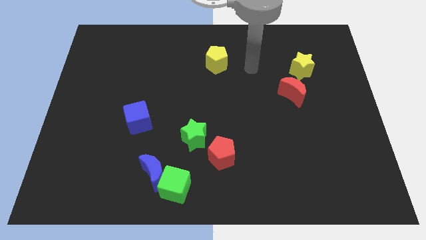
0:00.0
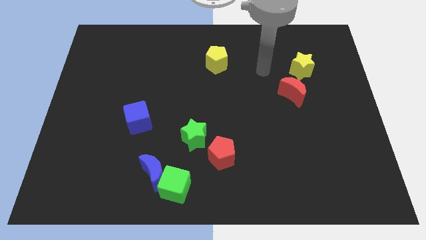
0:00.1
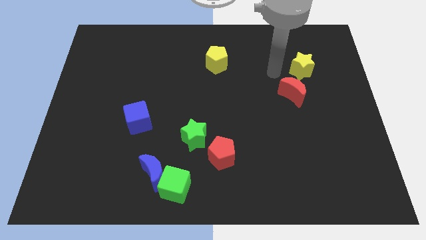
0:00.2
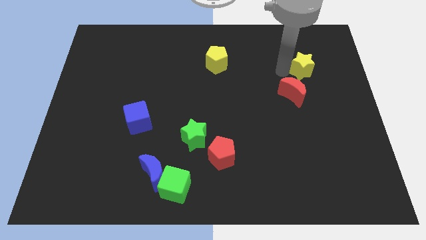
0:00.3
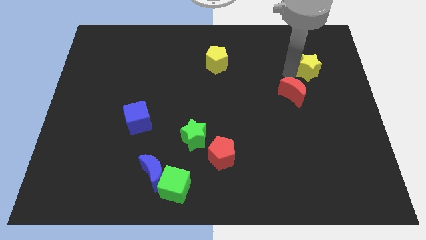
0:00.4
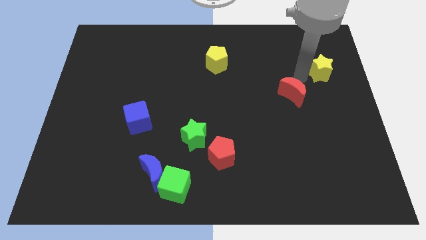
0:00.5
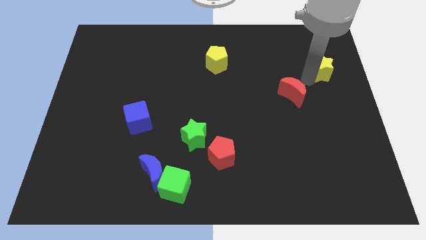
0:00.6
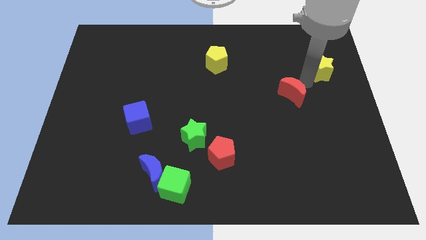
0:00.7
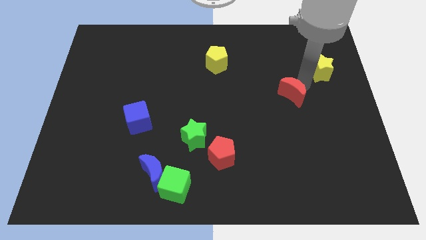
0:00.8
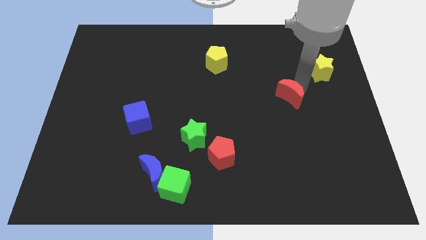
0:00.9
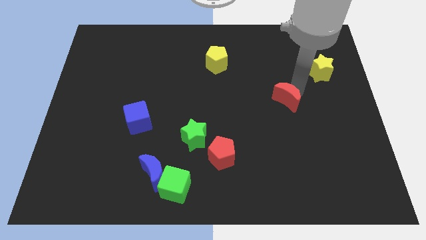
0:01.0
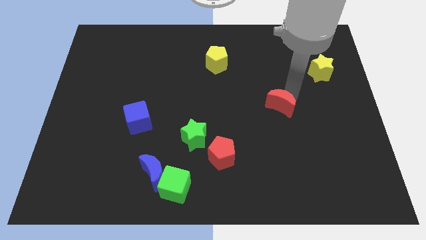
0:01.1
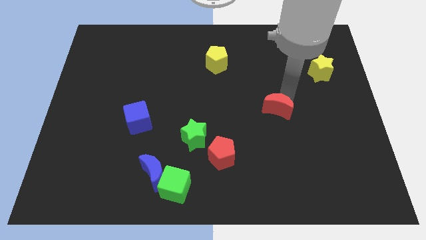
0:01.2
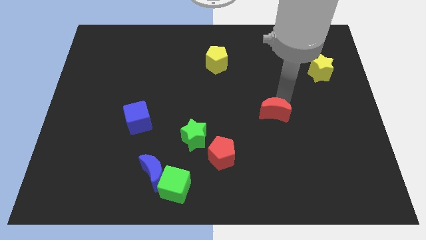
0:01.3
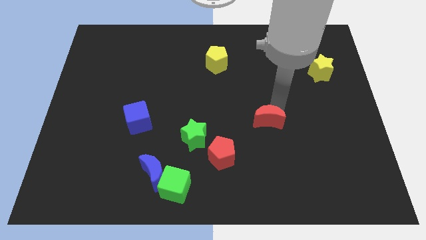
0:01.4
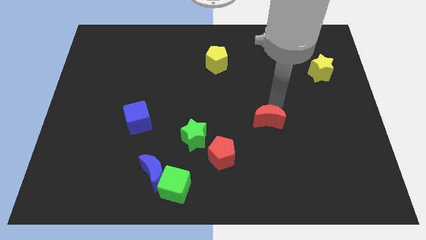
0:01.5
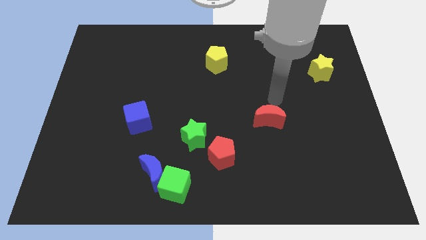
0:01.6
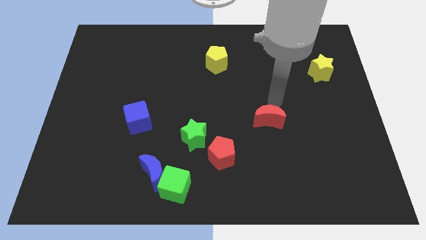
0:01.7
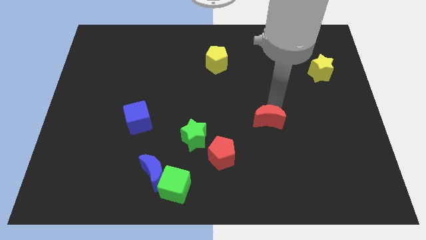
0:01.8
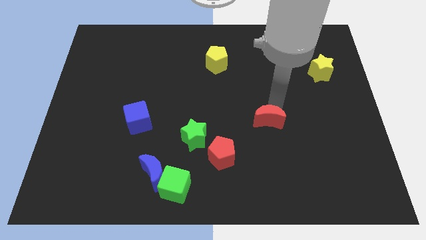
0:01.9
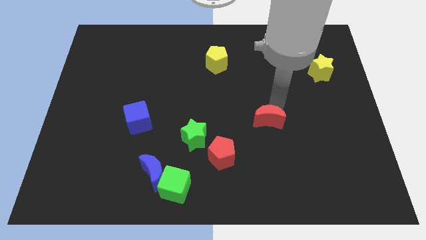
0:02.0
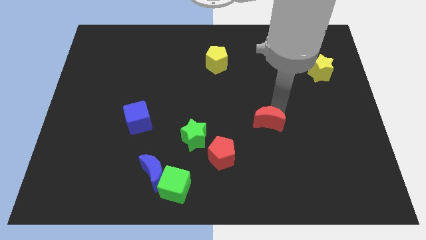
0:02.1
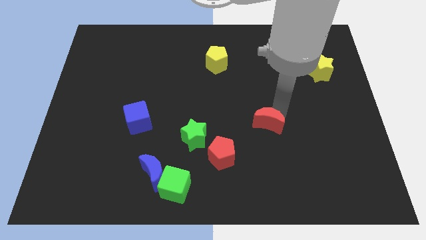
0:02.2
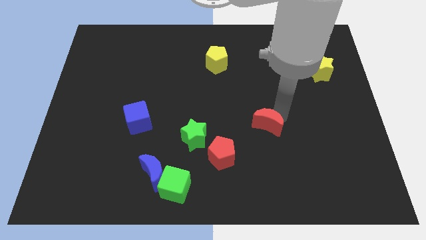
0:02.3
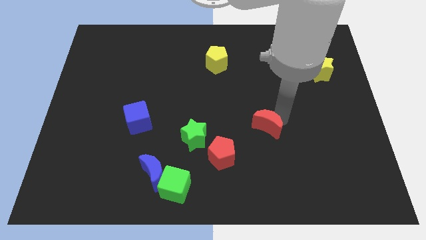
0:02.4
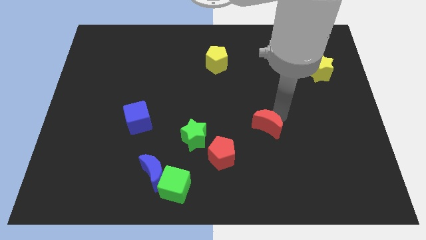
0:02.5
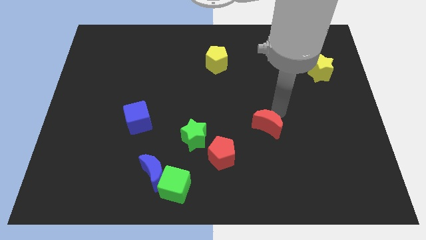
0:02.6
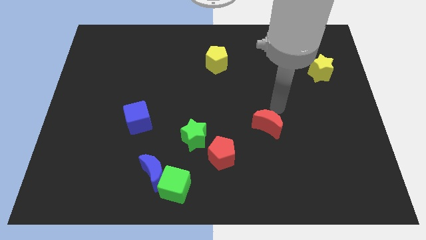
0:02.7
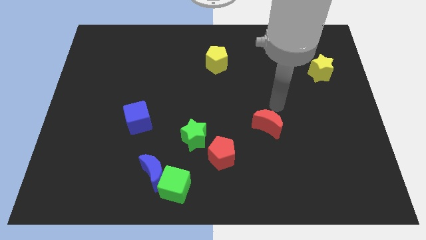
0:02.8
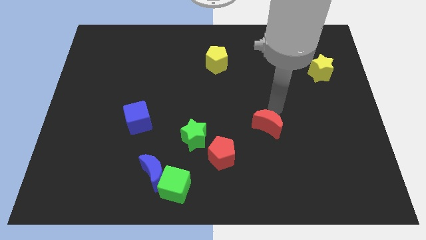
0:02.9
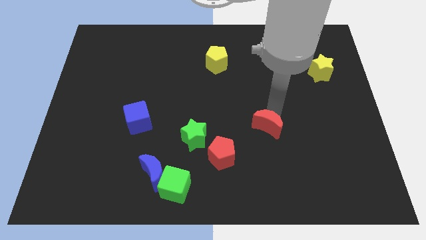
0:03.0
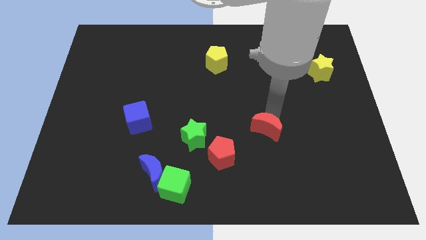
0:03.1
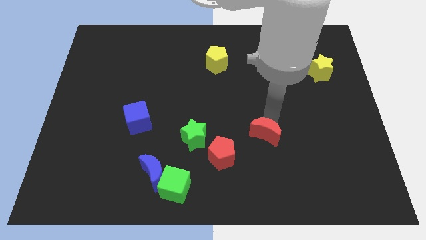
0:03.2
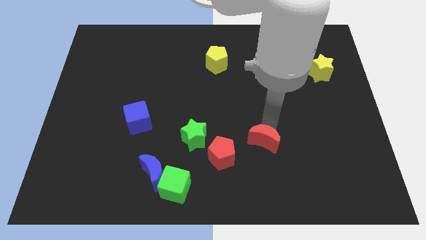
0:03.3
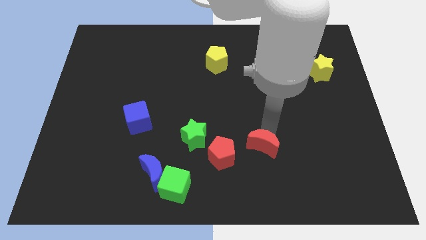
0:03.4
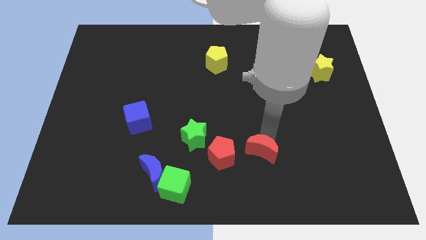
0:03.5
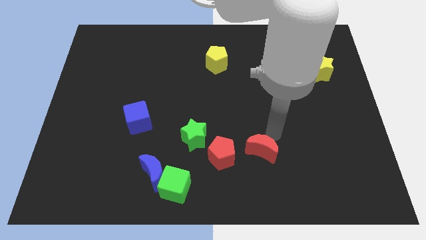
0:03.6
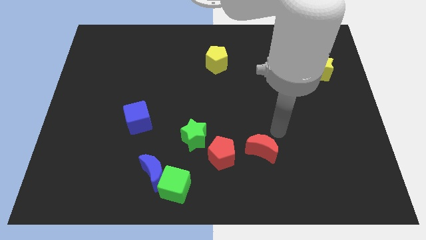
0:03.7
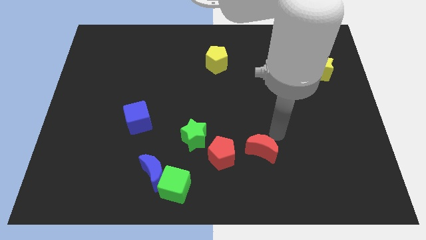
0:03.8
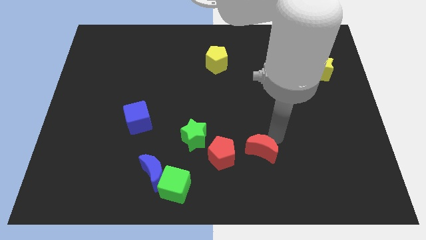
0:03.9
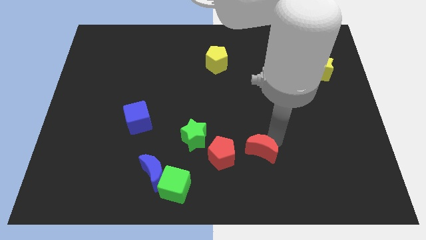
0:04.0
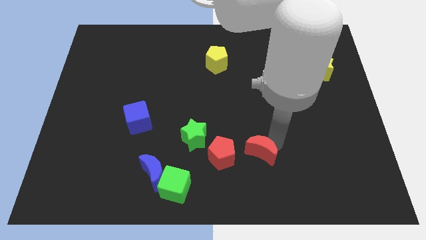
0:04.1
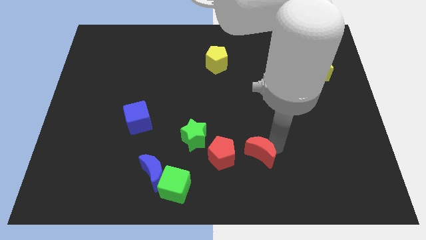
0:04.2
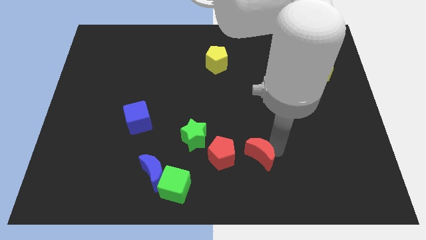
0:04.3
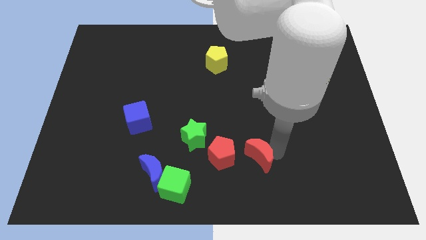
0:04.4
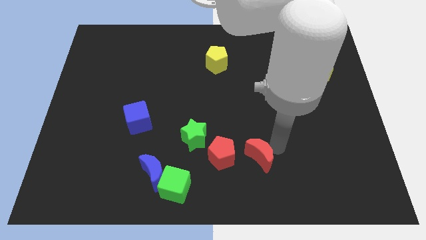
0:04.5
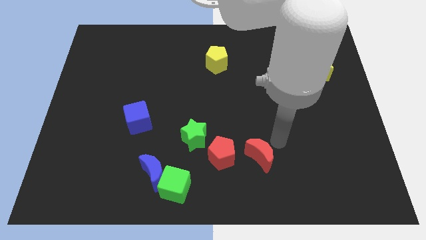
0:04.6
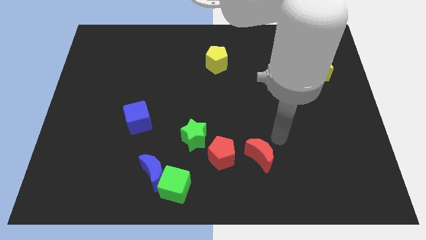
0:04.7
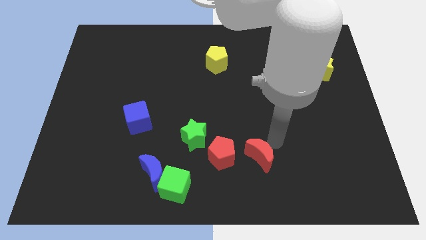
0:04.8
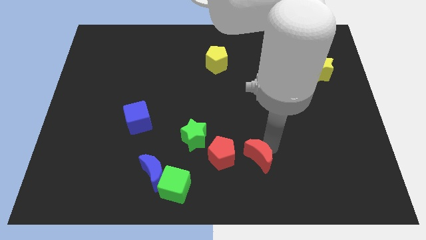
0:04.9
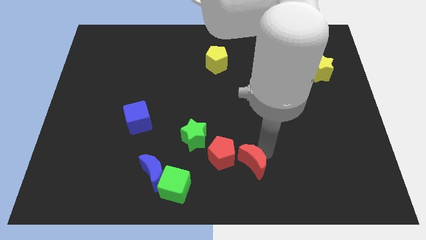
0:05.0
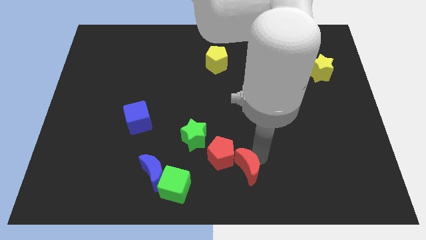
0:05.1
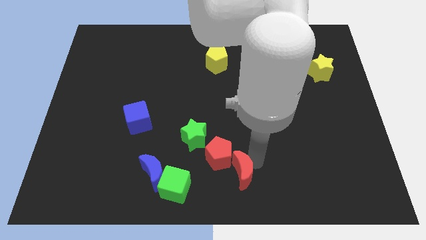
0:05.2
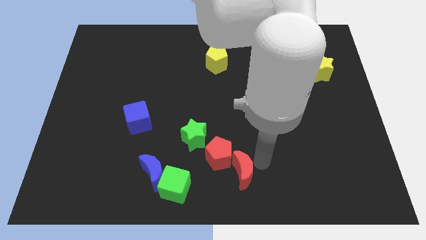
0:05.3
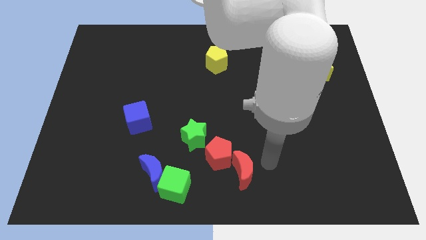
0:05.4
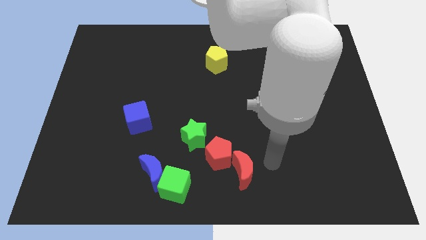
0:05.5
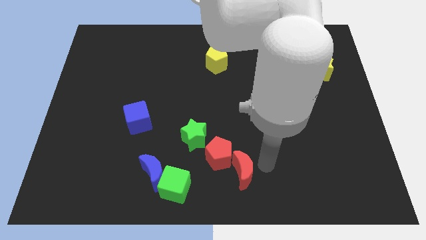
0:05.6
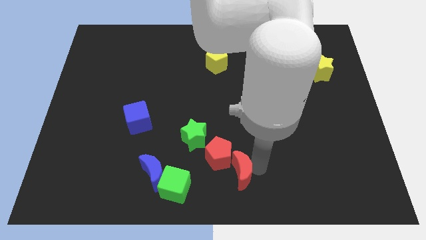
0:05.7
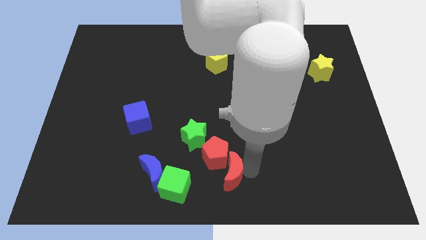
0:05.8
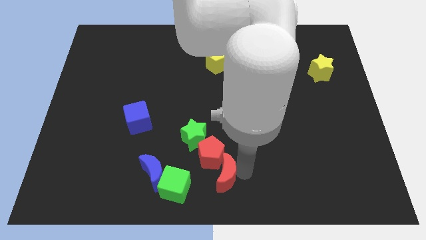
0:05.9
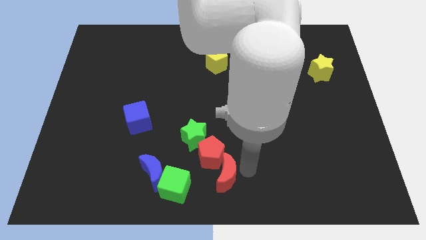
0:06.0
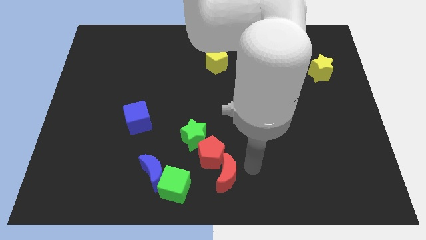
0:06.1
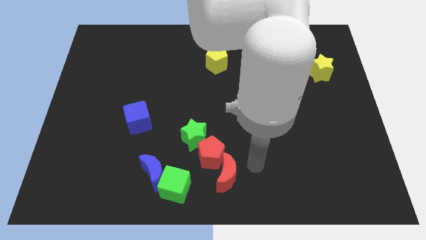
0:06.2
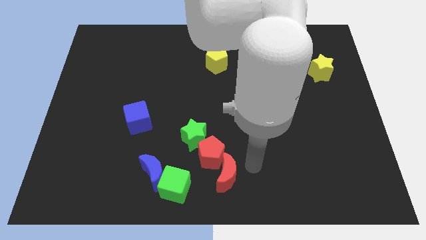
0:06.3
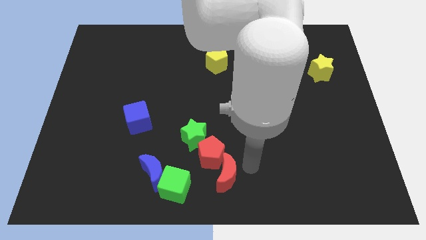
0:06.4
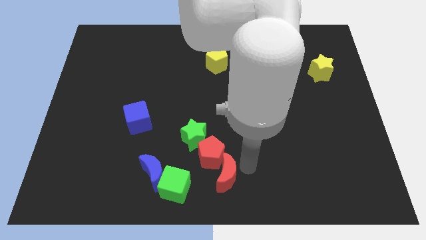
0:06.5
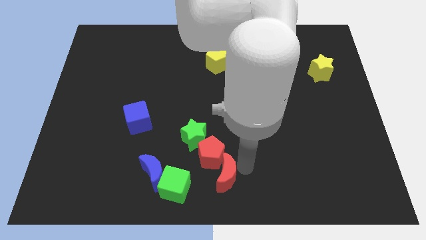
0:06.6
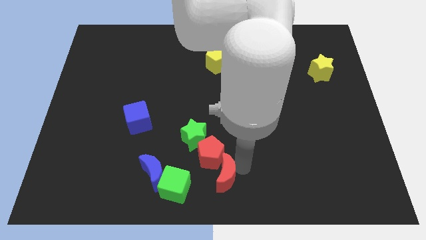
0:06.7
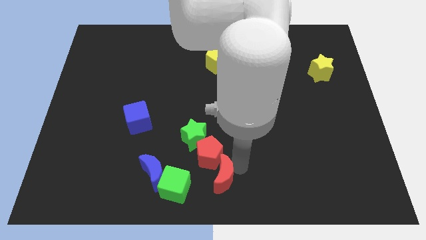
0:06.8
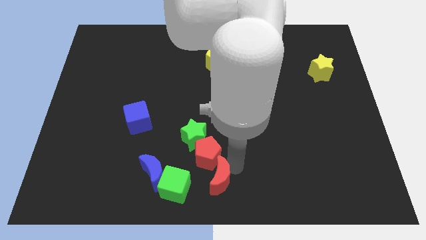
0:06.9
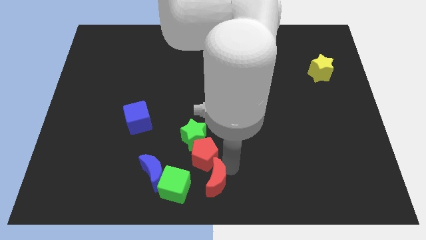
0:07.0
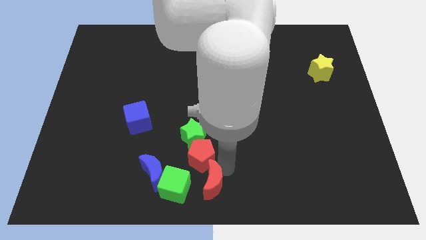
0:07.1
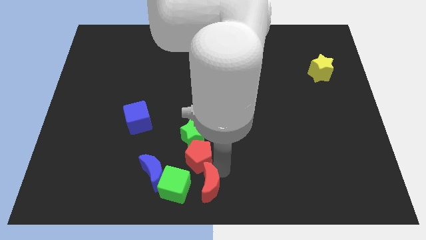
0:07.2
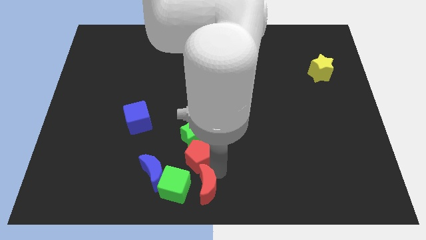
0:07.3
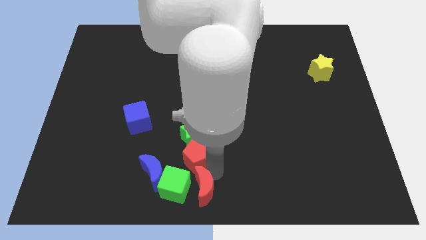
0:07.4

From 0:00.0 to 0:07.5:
slide the red moon next to the green cube
